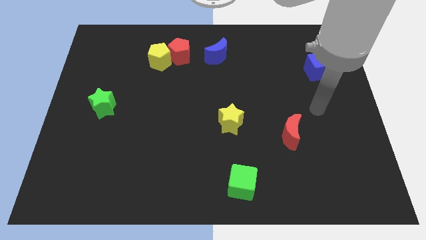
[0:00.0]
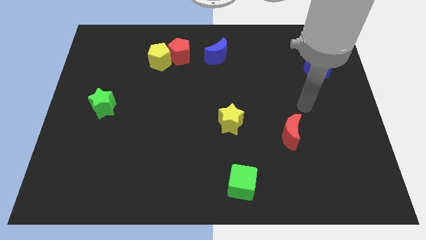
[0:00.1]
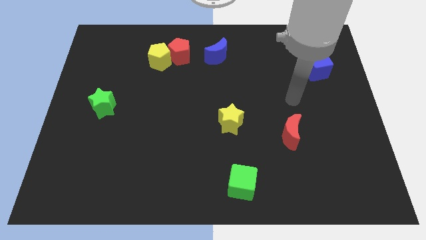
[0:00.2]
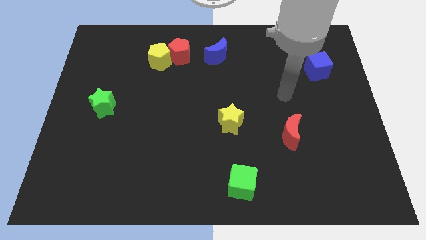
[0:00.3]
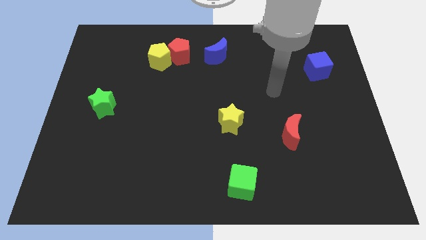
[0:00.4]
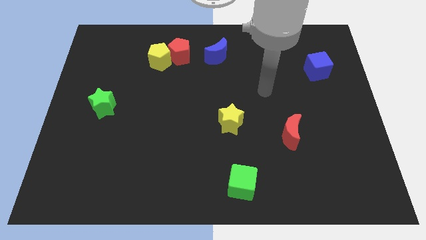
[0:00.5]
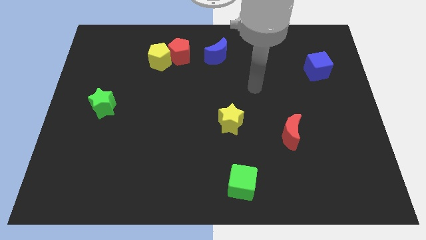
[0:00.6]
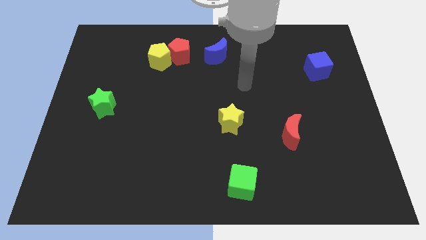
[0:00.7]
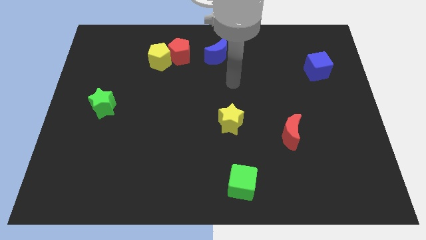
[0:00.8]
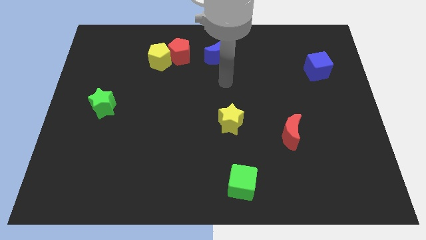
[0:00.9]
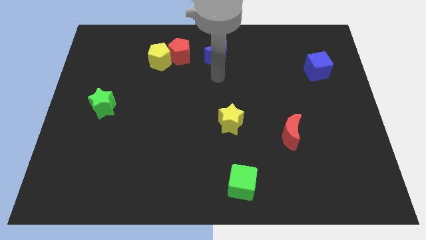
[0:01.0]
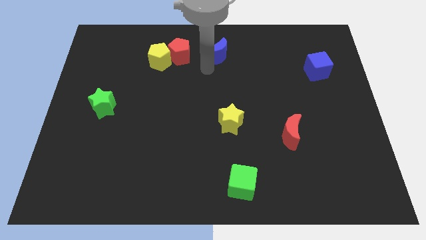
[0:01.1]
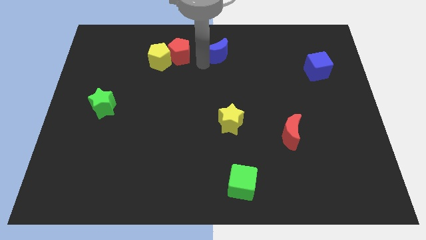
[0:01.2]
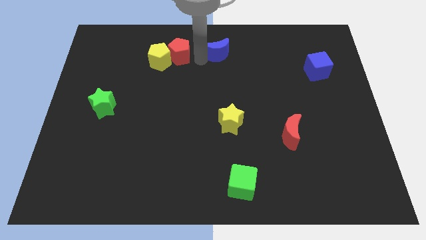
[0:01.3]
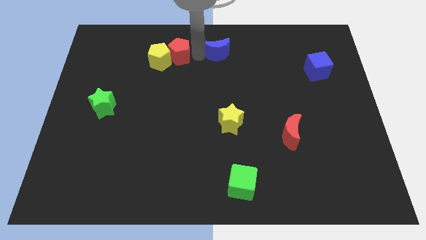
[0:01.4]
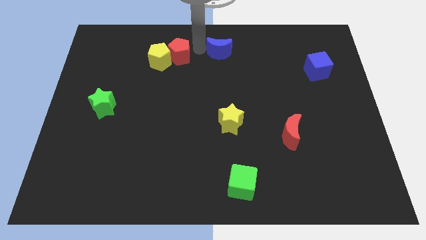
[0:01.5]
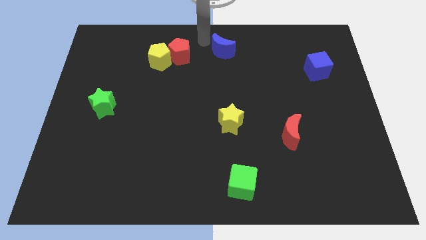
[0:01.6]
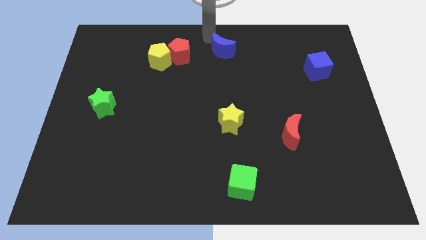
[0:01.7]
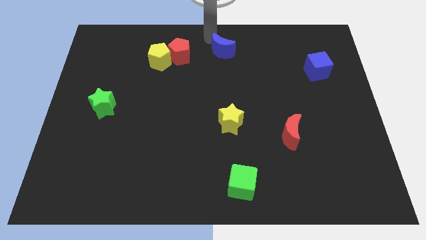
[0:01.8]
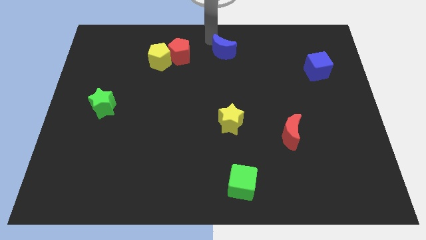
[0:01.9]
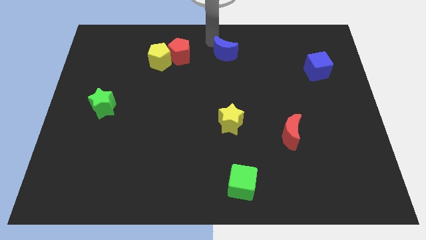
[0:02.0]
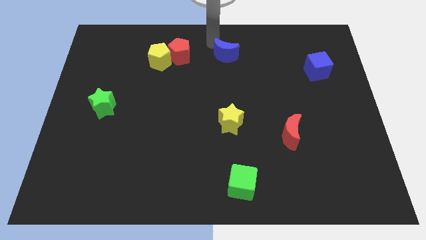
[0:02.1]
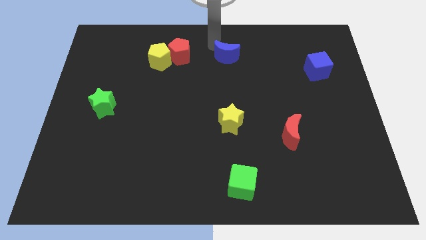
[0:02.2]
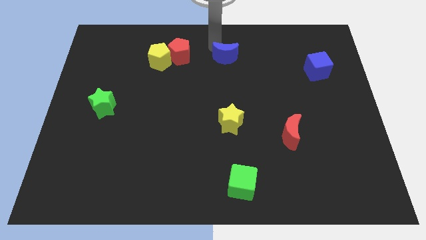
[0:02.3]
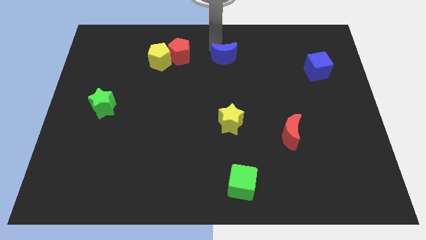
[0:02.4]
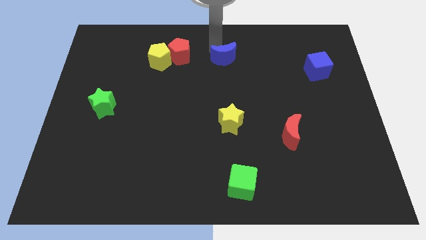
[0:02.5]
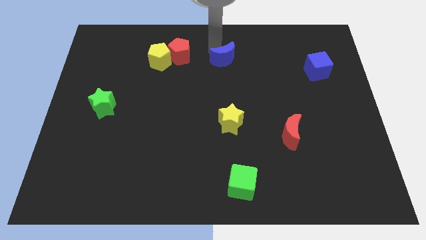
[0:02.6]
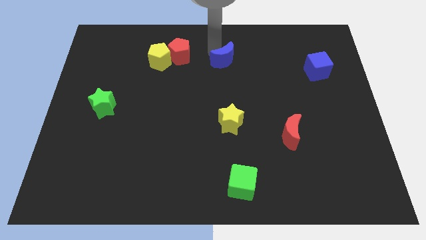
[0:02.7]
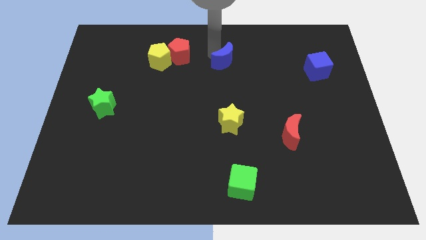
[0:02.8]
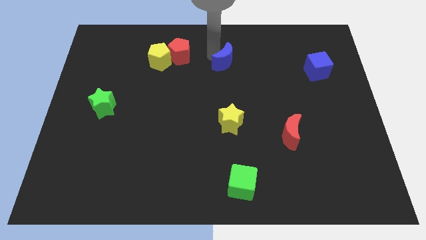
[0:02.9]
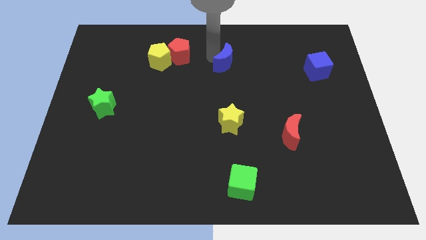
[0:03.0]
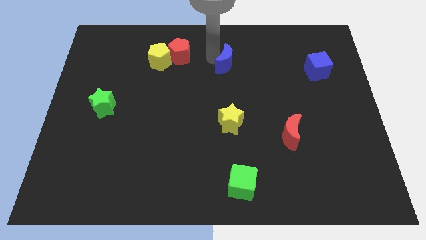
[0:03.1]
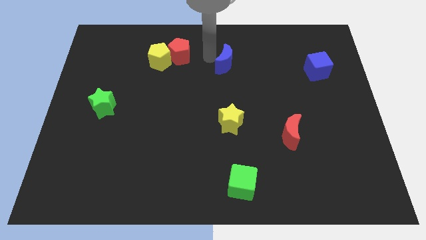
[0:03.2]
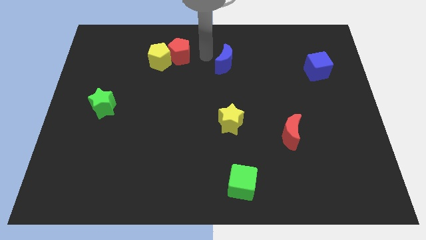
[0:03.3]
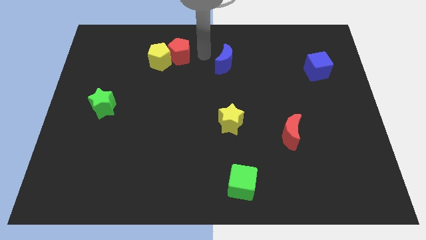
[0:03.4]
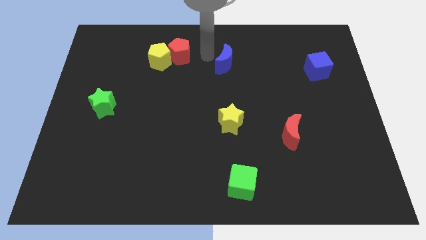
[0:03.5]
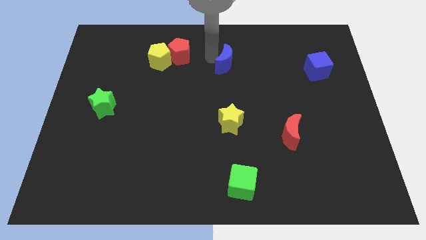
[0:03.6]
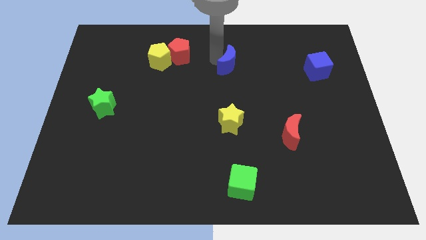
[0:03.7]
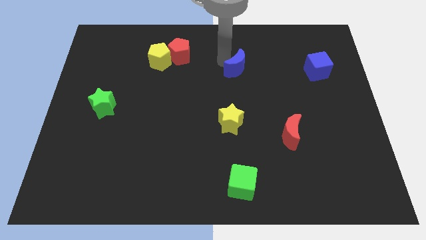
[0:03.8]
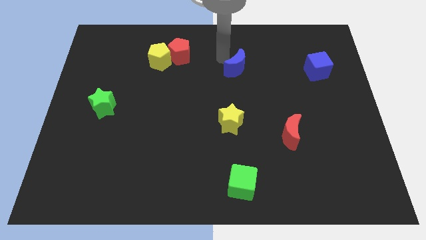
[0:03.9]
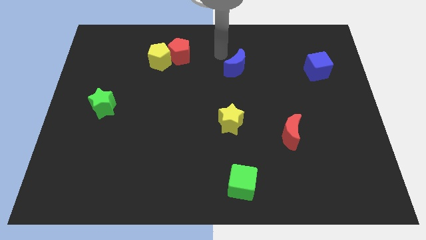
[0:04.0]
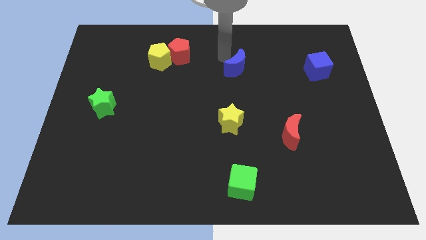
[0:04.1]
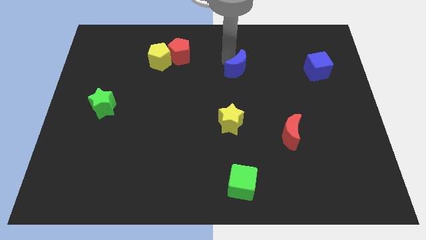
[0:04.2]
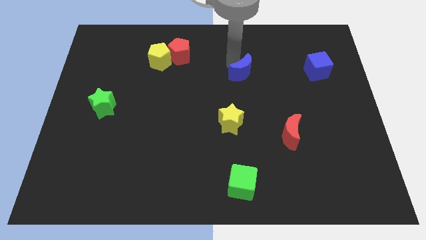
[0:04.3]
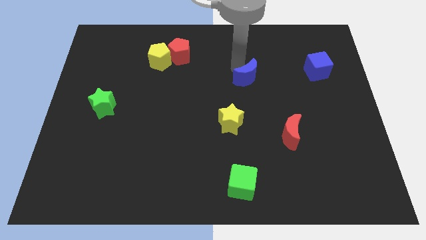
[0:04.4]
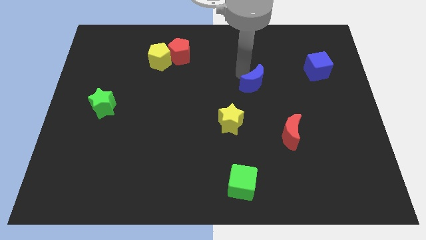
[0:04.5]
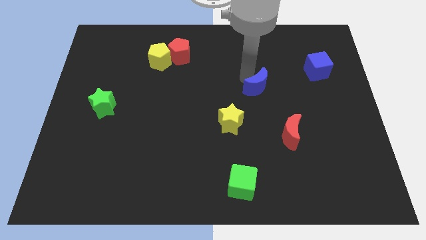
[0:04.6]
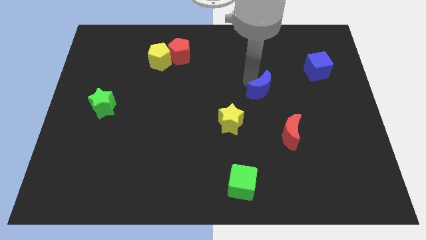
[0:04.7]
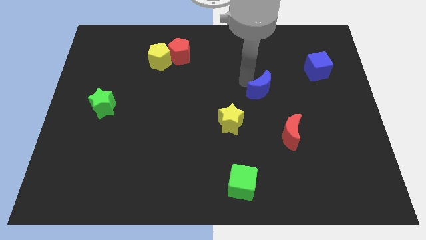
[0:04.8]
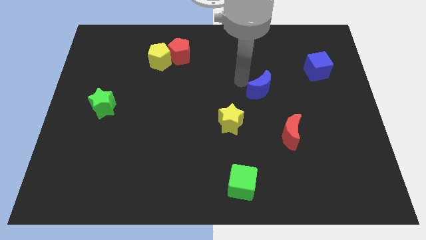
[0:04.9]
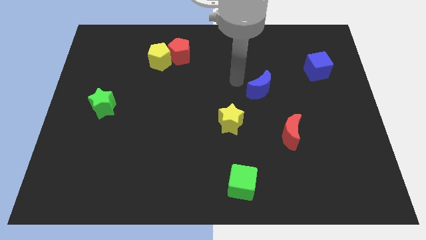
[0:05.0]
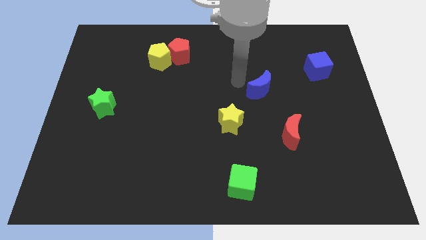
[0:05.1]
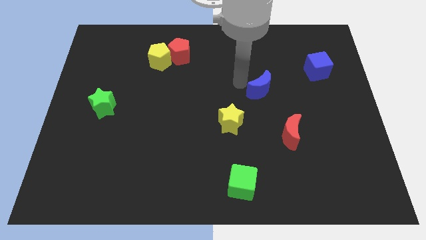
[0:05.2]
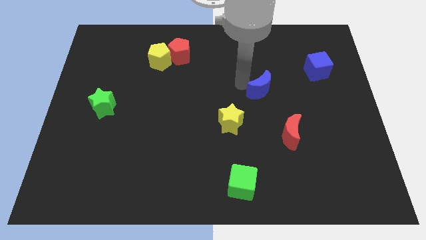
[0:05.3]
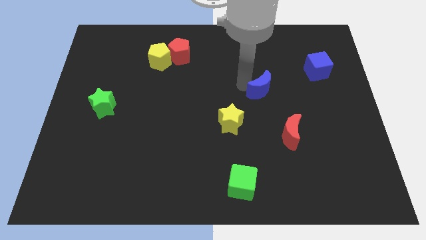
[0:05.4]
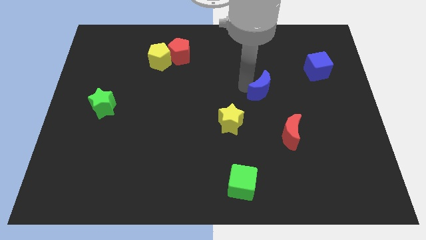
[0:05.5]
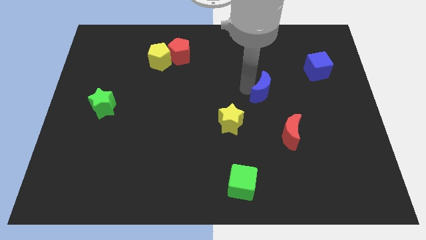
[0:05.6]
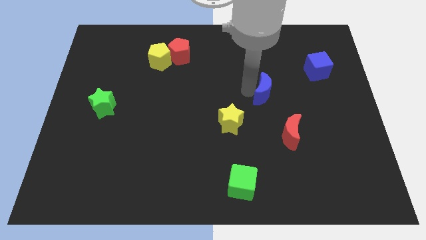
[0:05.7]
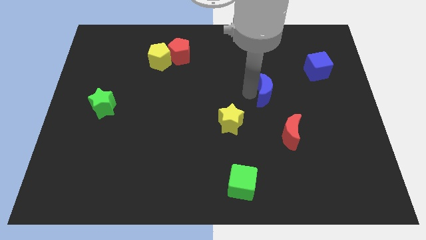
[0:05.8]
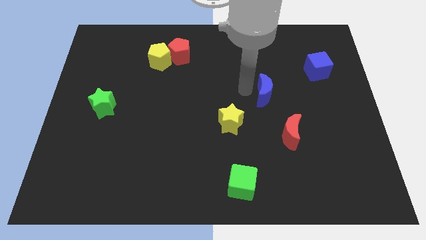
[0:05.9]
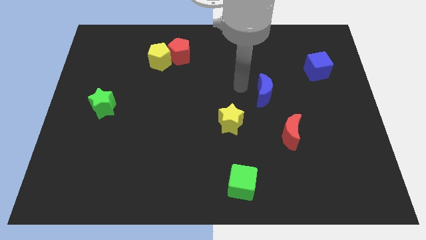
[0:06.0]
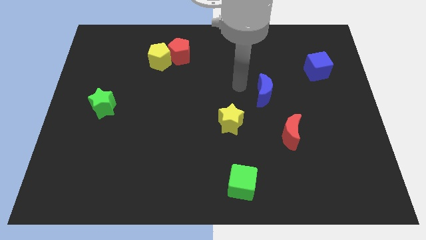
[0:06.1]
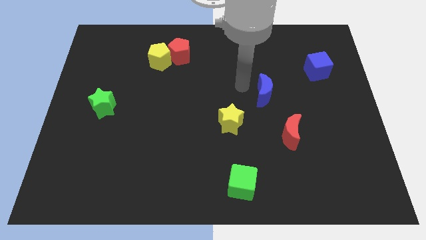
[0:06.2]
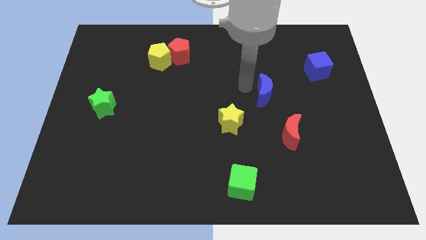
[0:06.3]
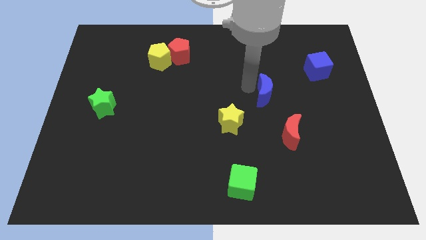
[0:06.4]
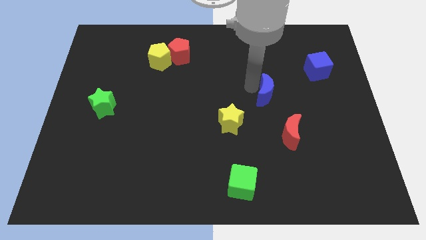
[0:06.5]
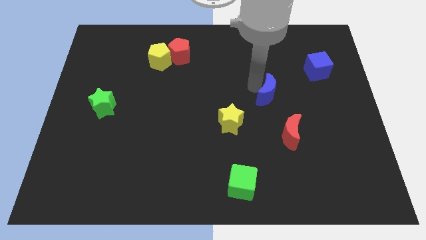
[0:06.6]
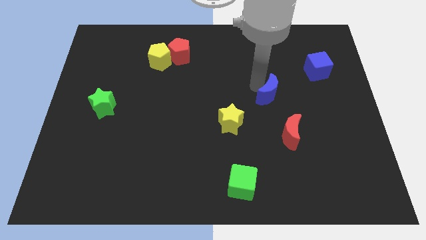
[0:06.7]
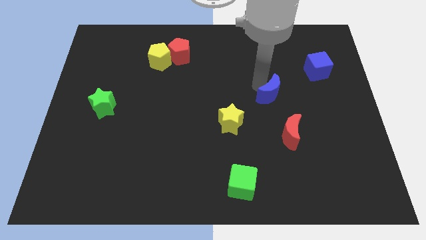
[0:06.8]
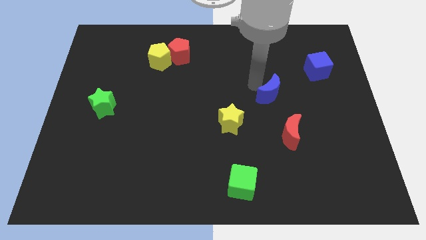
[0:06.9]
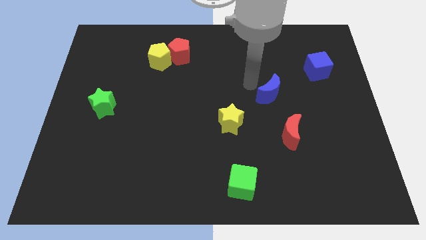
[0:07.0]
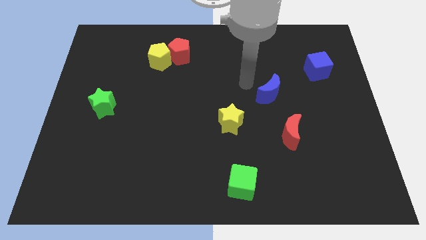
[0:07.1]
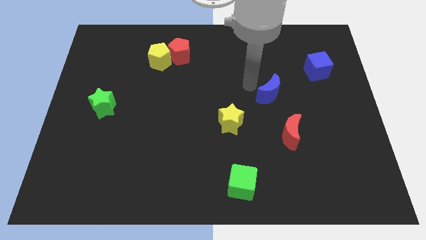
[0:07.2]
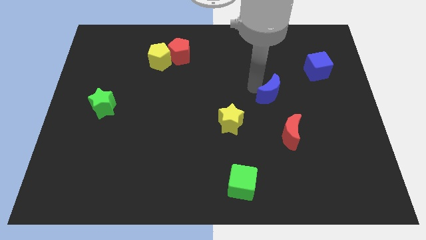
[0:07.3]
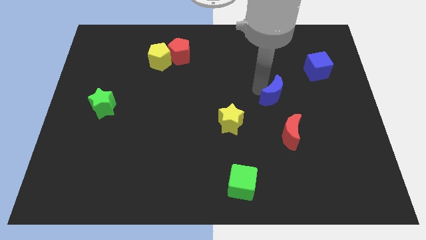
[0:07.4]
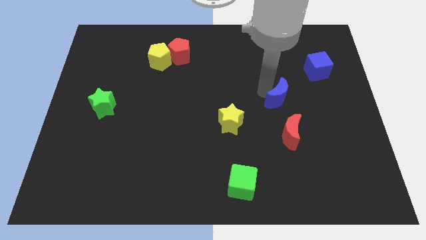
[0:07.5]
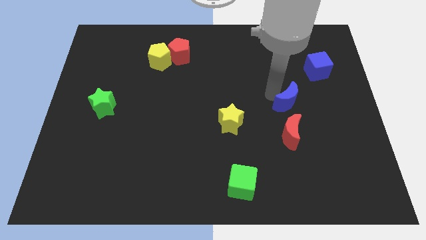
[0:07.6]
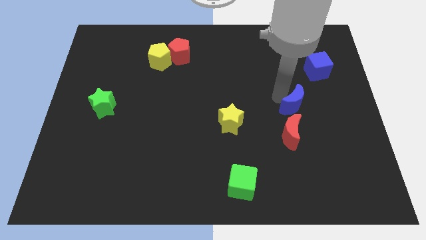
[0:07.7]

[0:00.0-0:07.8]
slide the blue moon to the top right of the red moon
